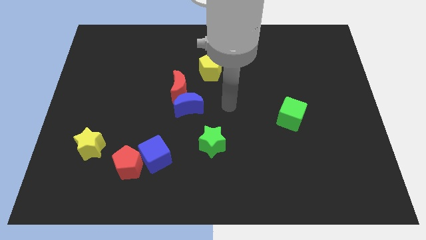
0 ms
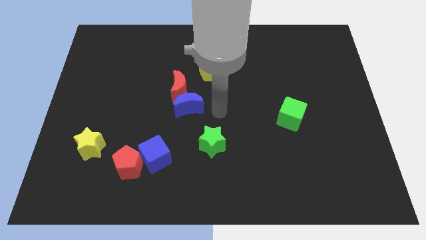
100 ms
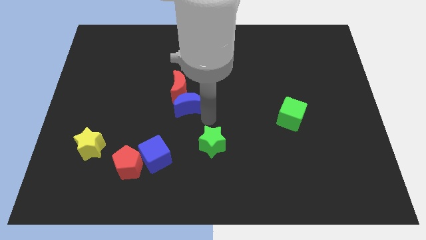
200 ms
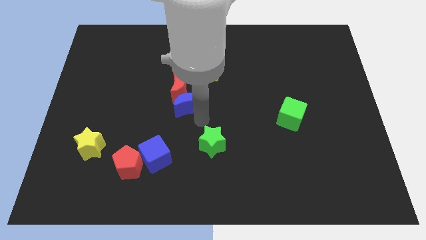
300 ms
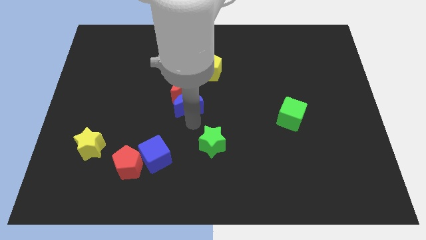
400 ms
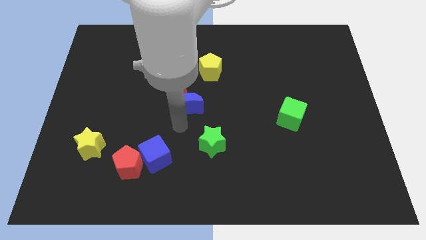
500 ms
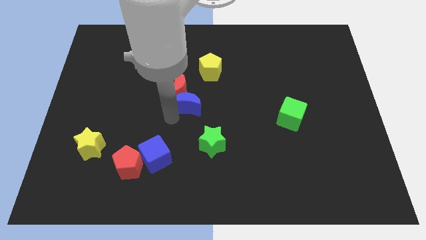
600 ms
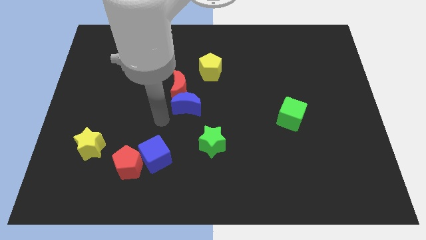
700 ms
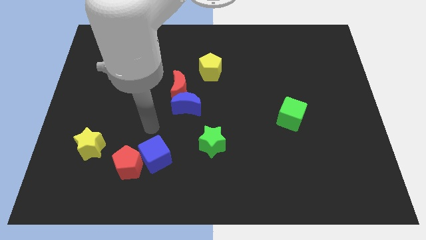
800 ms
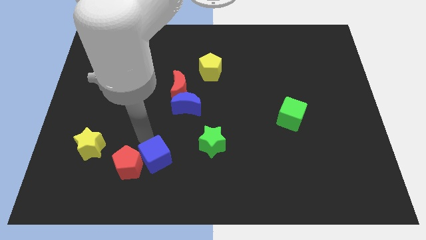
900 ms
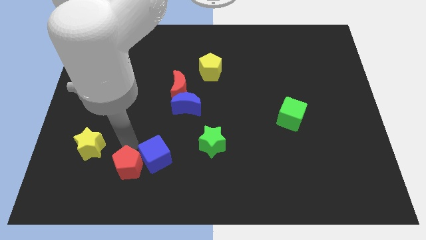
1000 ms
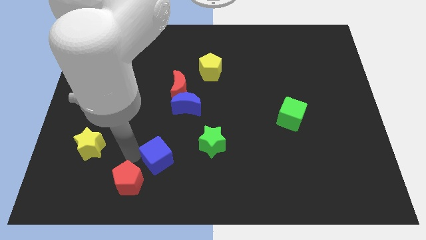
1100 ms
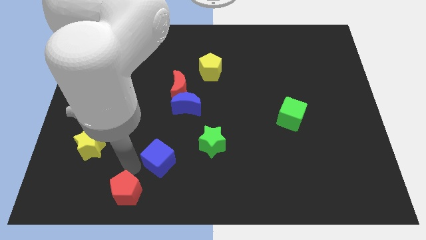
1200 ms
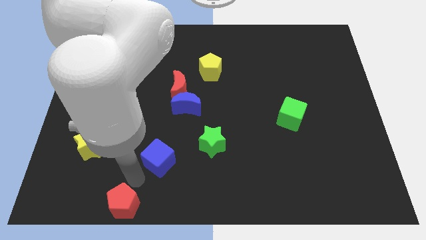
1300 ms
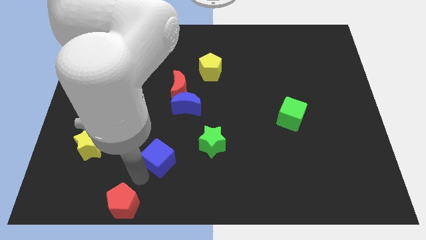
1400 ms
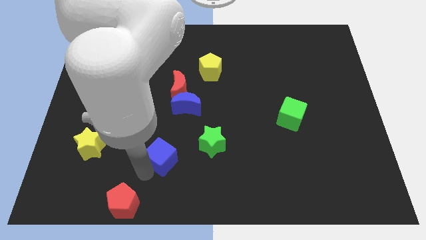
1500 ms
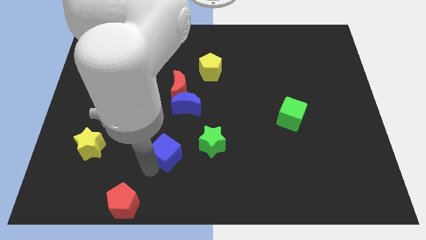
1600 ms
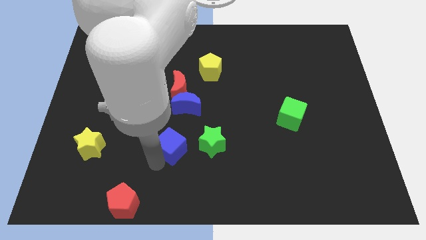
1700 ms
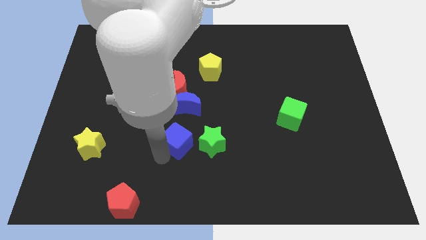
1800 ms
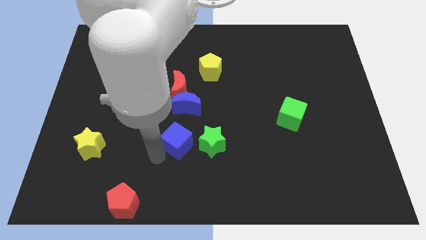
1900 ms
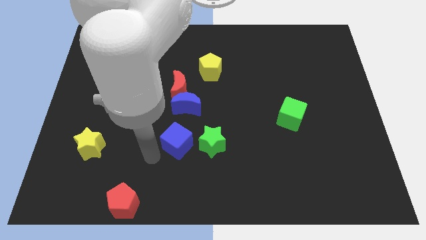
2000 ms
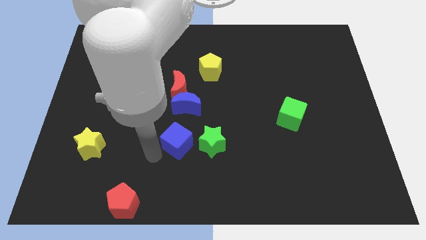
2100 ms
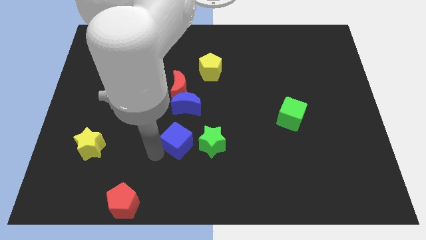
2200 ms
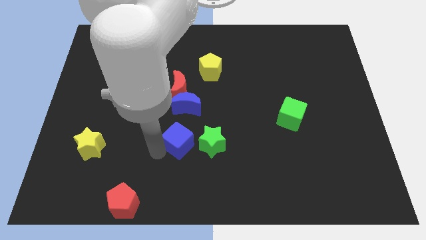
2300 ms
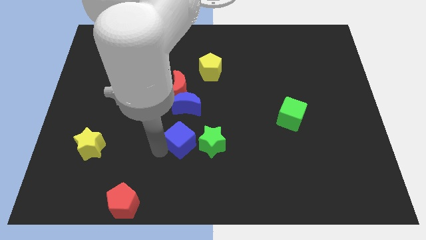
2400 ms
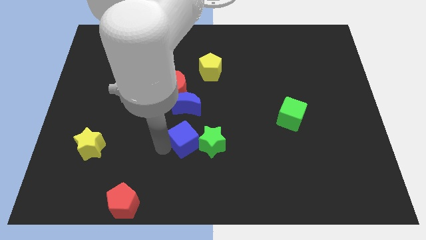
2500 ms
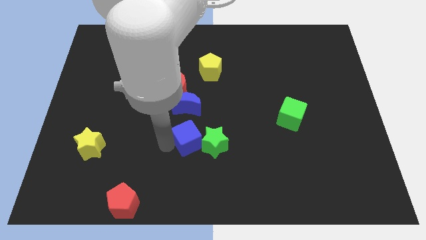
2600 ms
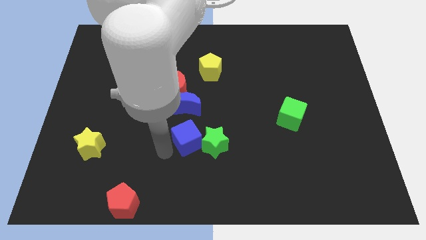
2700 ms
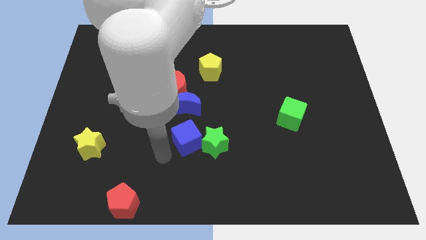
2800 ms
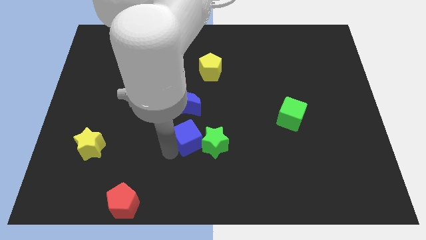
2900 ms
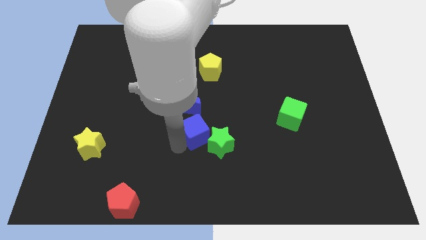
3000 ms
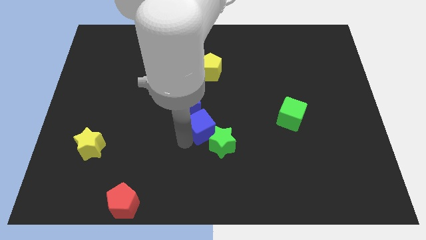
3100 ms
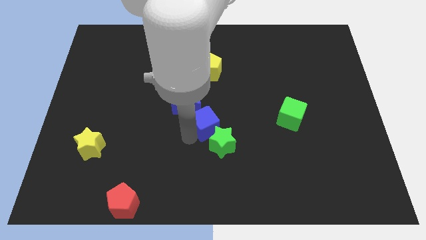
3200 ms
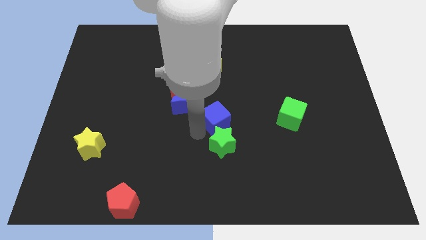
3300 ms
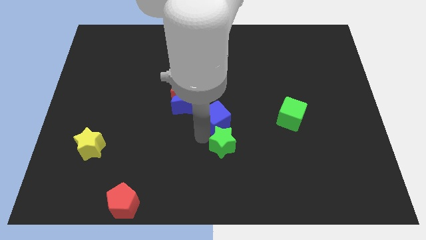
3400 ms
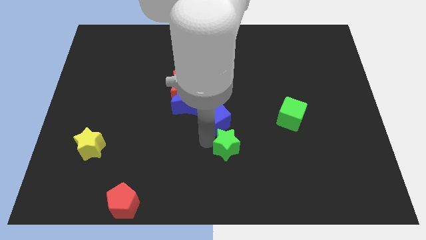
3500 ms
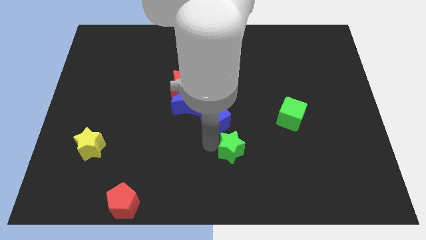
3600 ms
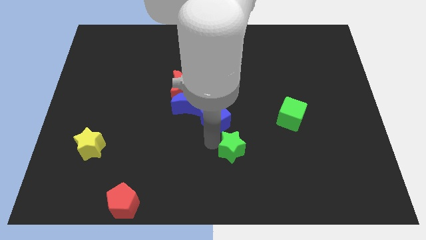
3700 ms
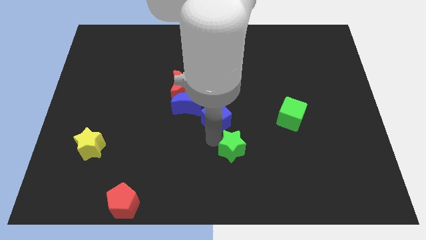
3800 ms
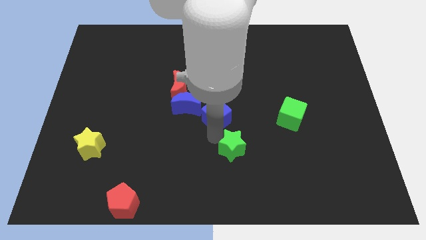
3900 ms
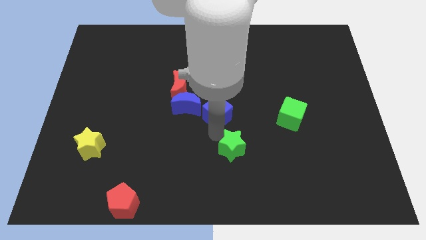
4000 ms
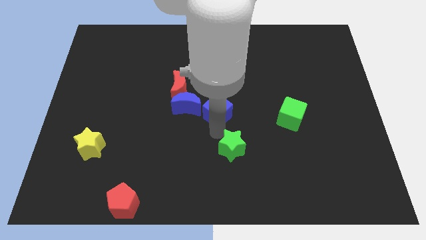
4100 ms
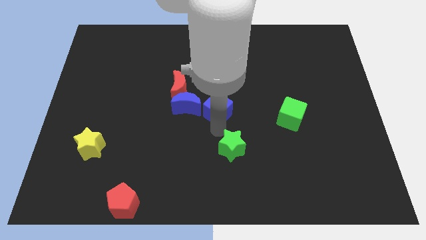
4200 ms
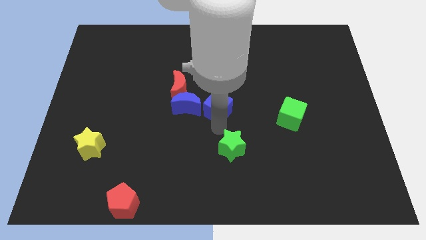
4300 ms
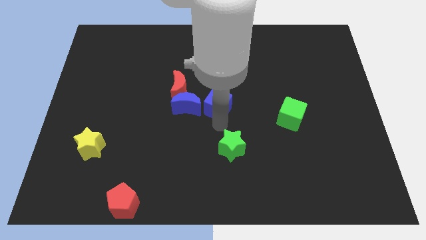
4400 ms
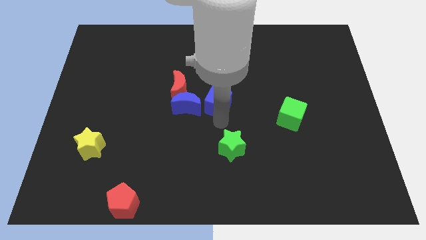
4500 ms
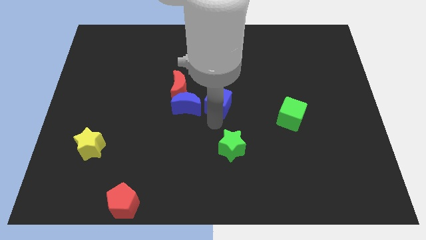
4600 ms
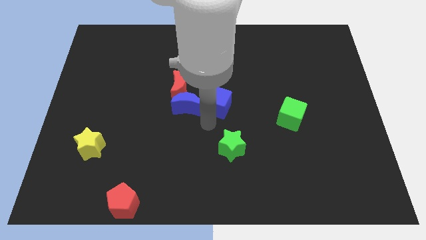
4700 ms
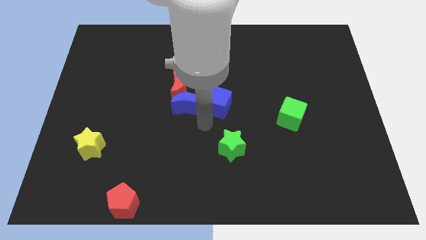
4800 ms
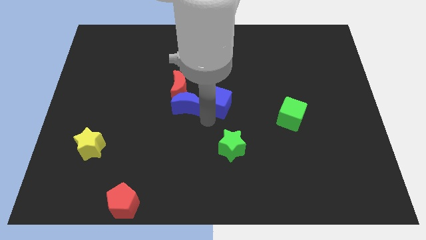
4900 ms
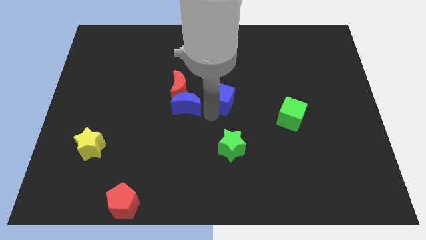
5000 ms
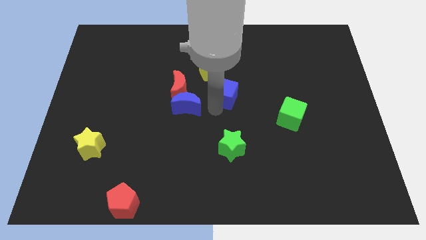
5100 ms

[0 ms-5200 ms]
move the blue cube diagonally down and to the right of the yellow pentagon

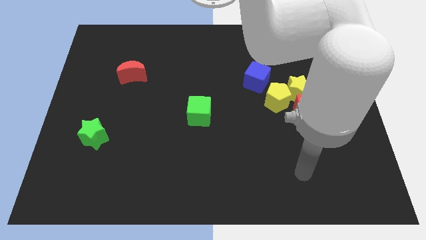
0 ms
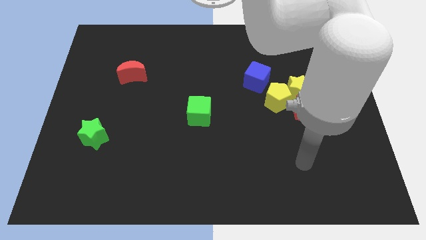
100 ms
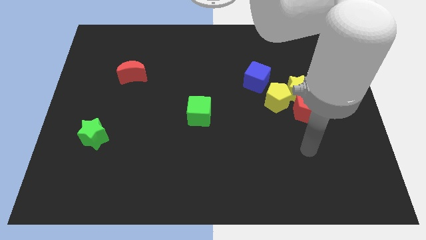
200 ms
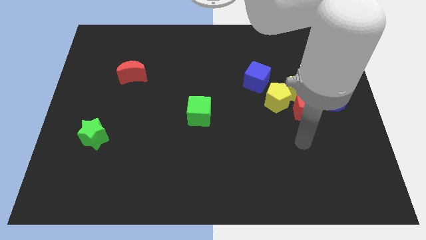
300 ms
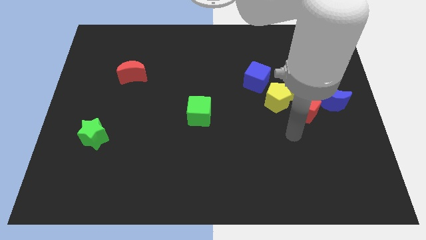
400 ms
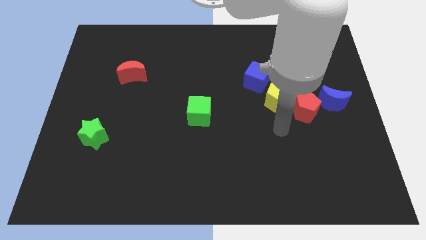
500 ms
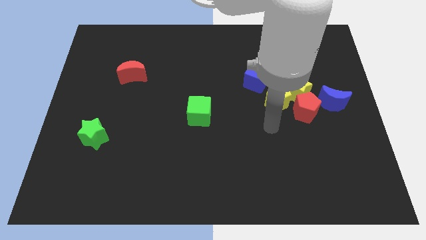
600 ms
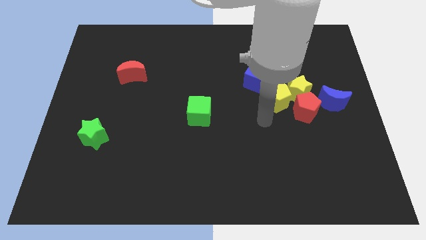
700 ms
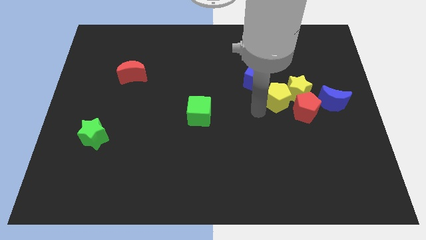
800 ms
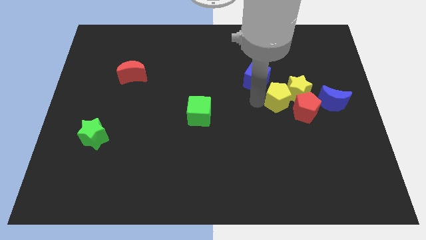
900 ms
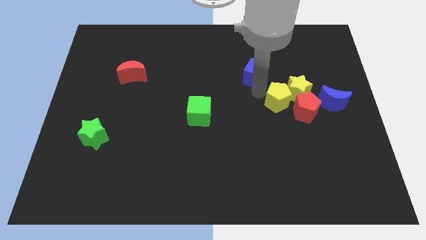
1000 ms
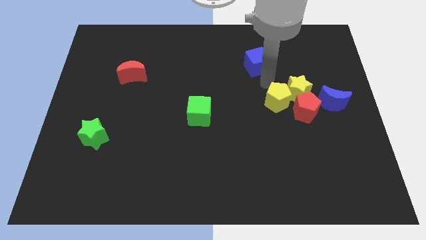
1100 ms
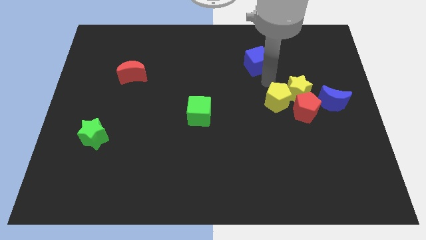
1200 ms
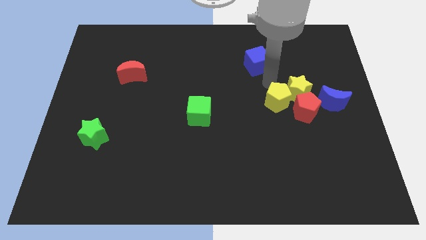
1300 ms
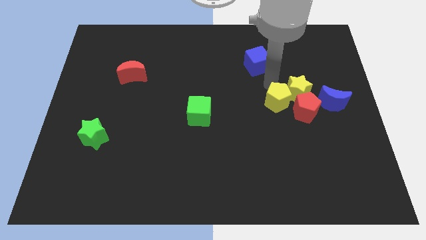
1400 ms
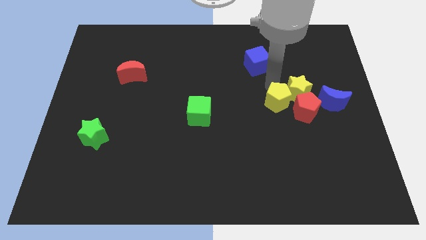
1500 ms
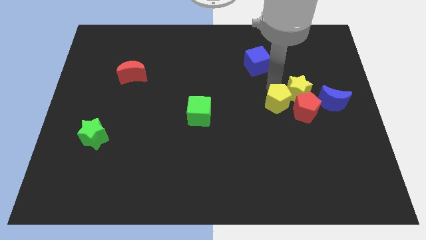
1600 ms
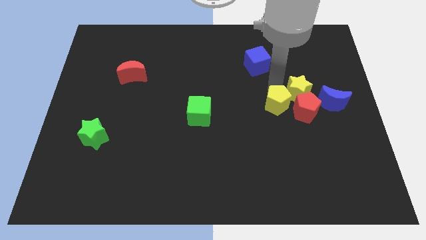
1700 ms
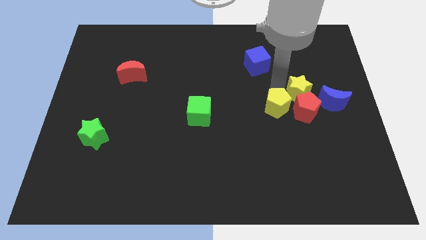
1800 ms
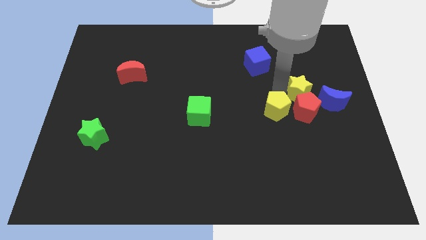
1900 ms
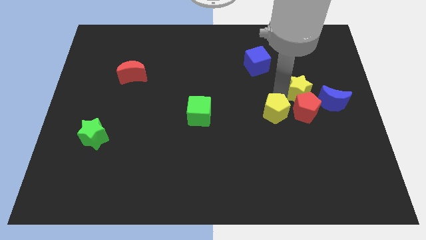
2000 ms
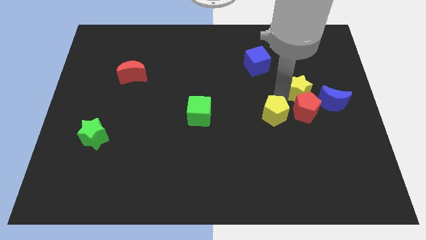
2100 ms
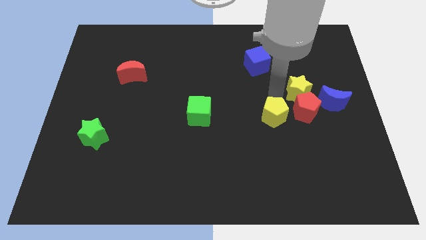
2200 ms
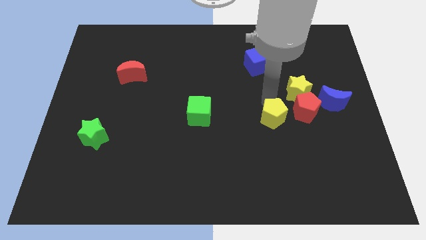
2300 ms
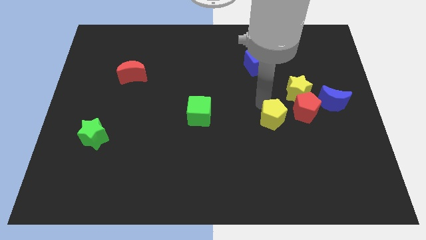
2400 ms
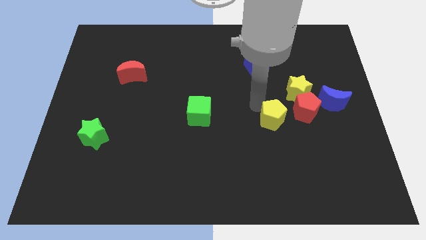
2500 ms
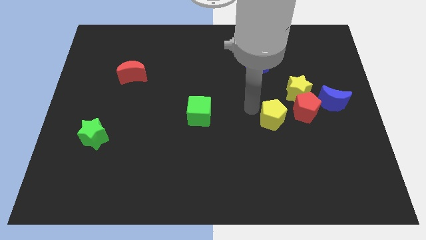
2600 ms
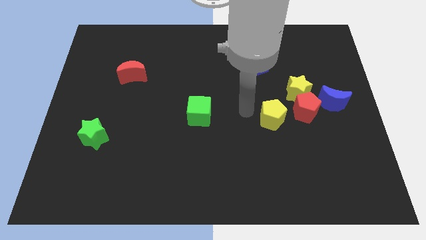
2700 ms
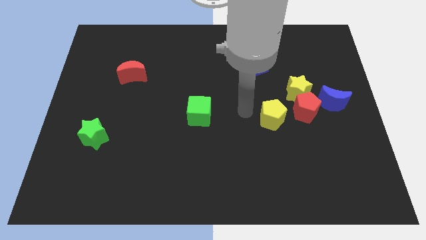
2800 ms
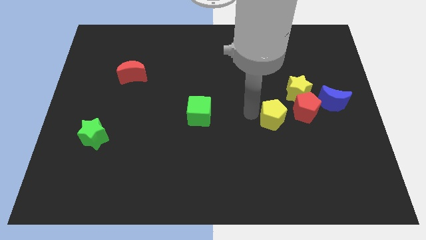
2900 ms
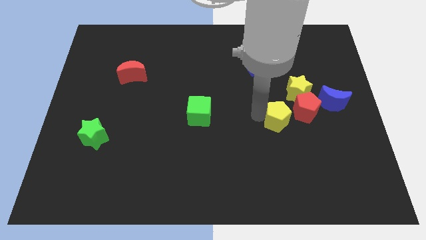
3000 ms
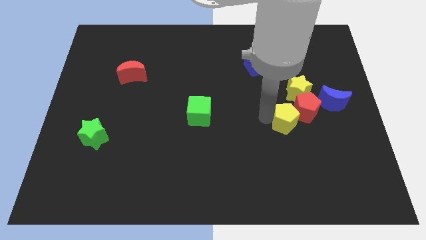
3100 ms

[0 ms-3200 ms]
slide the yellow pentagon to the bottom of the yellow star
